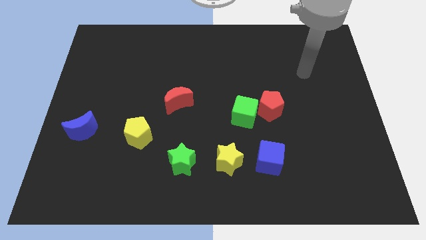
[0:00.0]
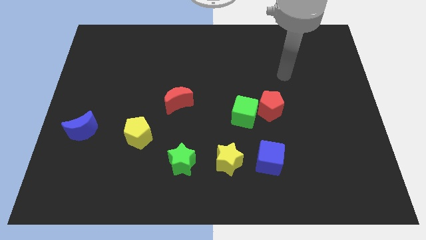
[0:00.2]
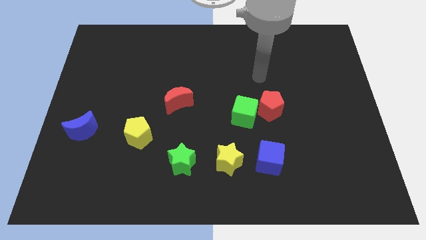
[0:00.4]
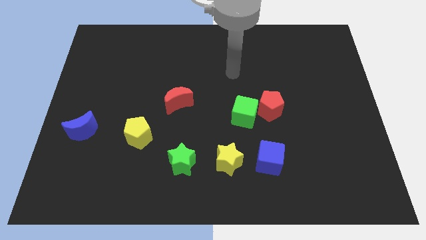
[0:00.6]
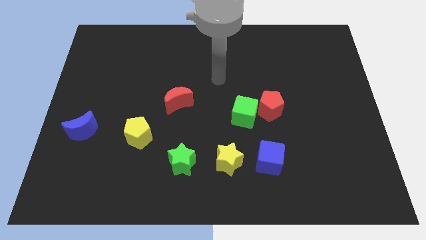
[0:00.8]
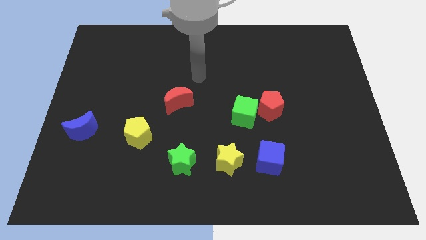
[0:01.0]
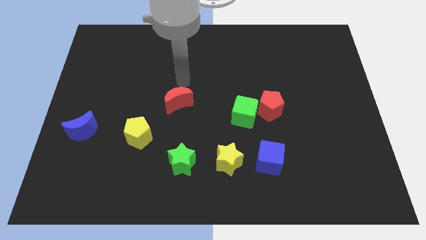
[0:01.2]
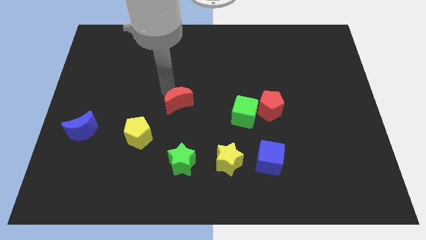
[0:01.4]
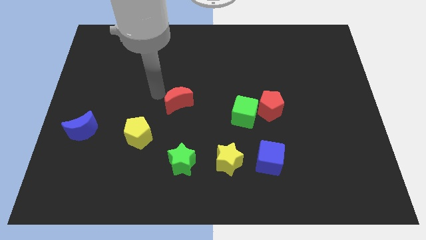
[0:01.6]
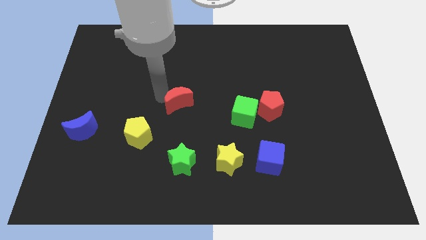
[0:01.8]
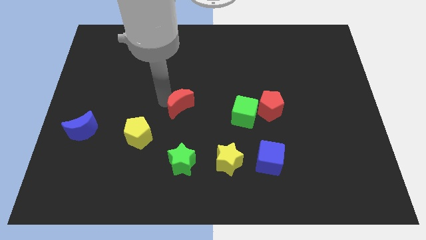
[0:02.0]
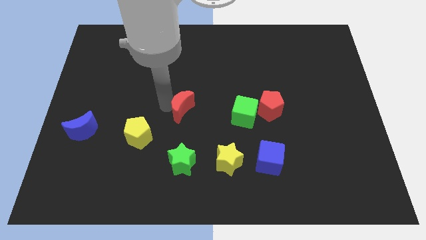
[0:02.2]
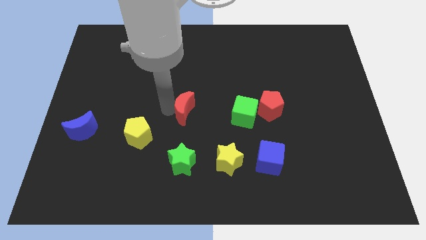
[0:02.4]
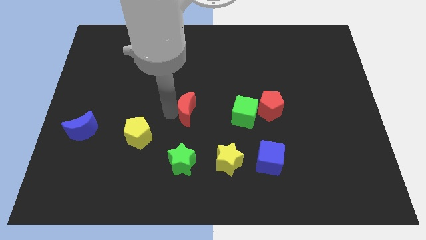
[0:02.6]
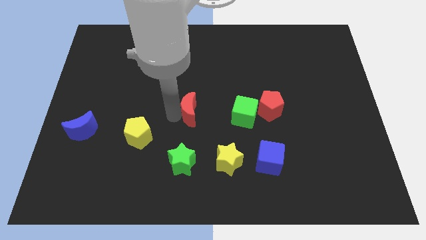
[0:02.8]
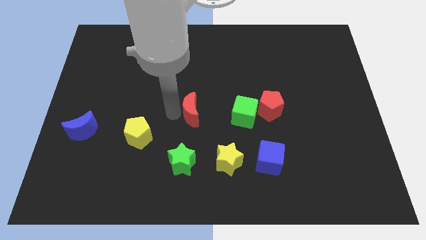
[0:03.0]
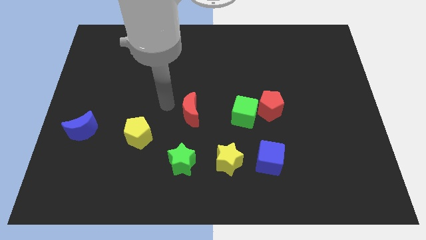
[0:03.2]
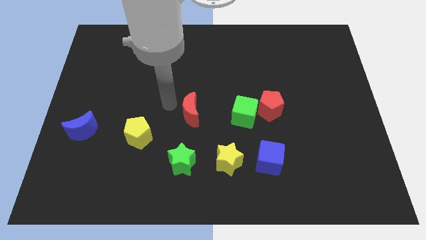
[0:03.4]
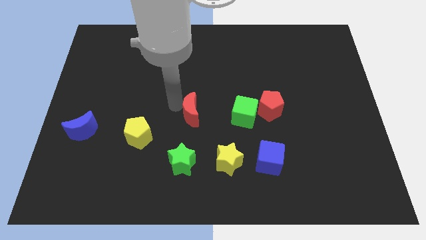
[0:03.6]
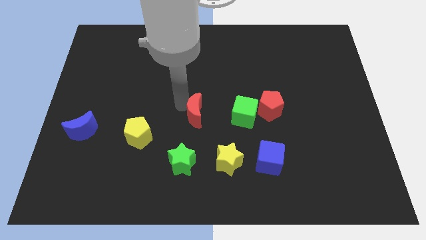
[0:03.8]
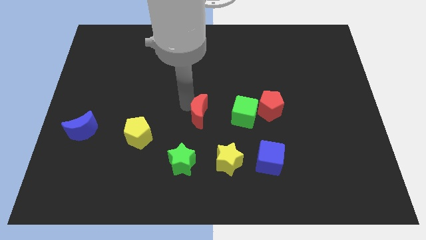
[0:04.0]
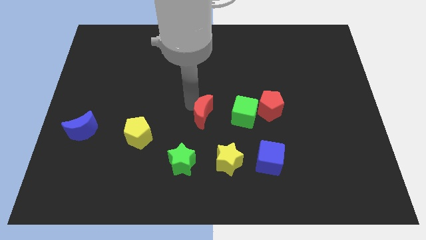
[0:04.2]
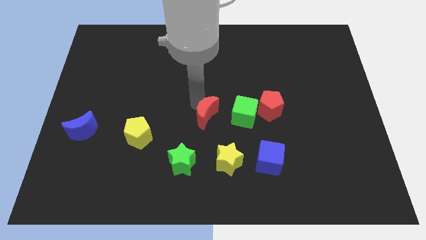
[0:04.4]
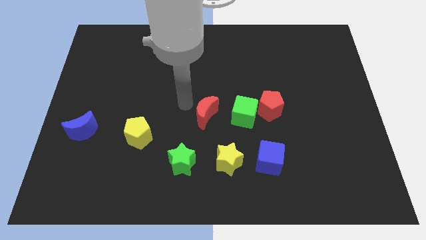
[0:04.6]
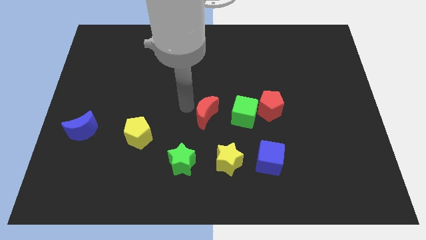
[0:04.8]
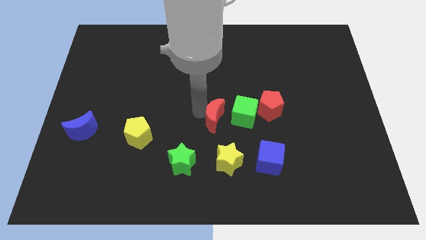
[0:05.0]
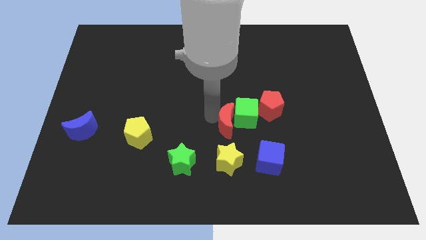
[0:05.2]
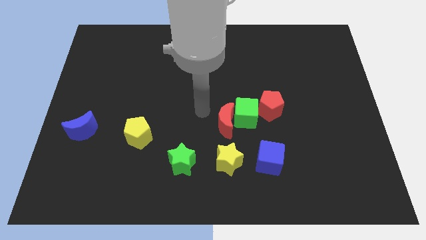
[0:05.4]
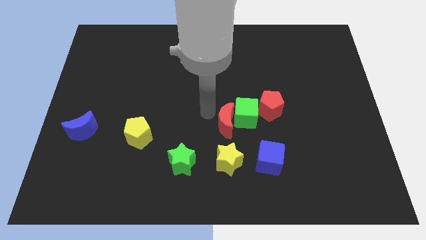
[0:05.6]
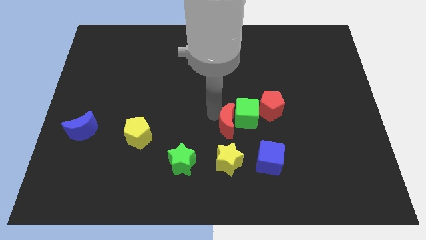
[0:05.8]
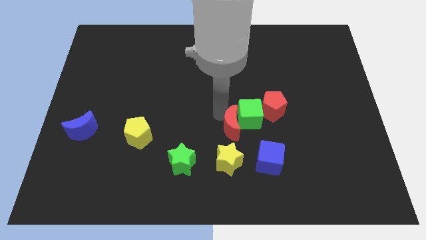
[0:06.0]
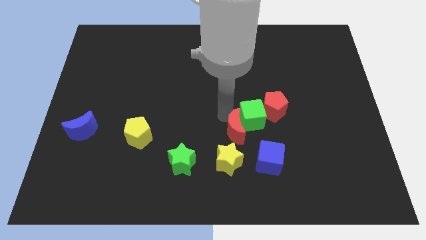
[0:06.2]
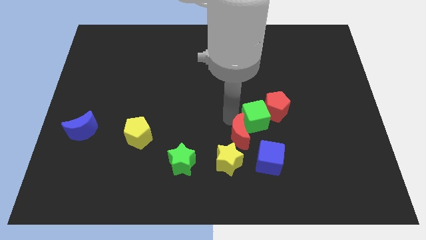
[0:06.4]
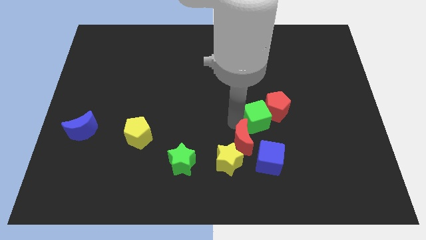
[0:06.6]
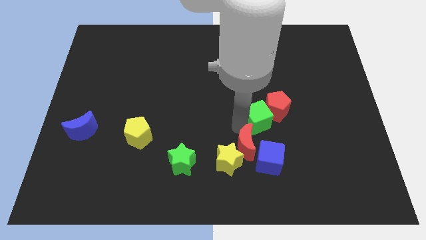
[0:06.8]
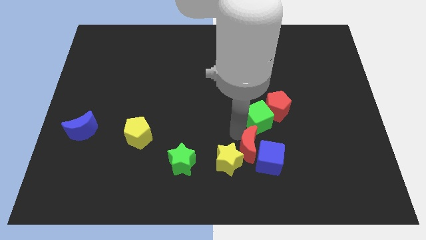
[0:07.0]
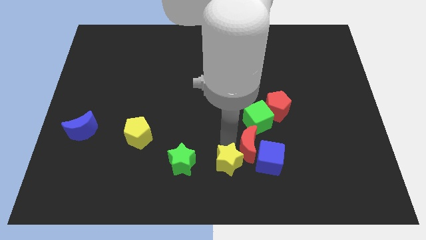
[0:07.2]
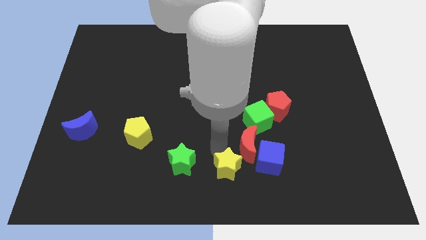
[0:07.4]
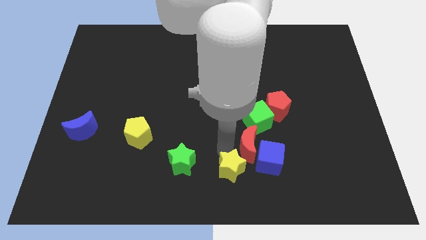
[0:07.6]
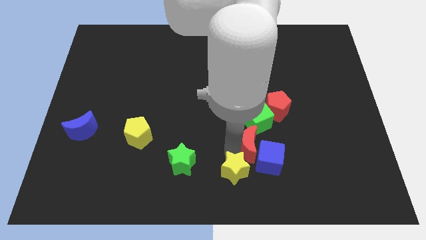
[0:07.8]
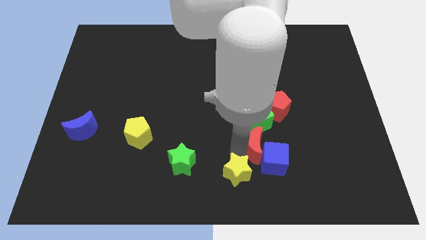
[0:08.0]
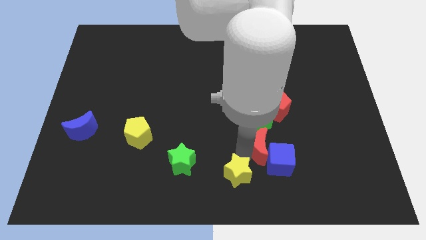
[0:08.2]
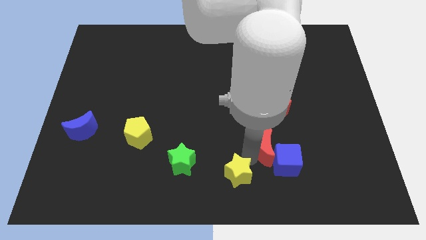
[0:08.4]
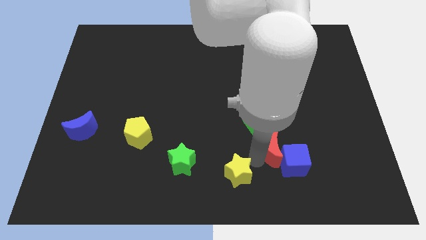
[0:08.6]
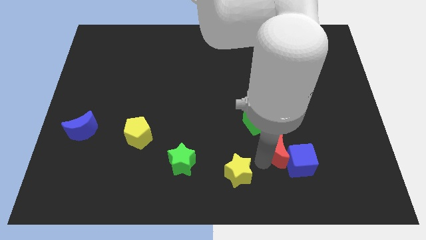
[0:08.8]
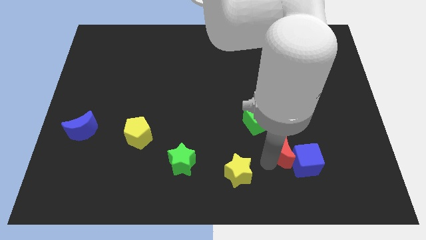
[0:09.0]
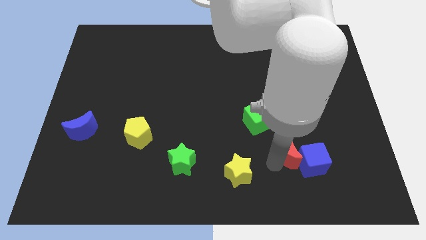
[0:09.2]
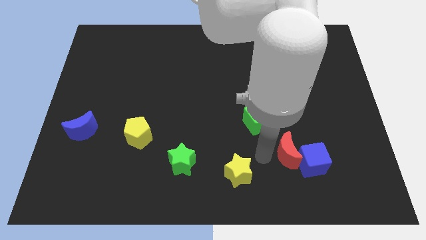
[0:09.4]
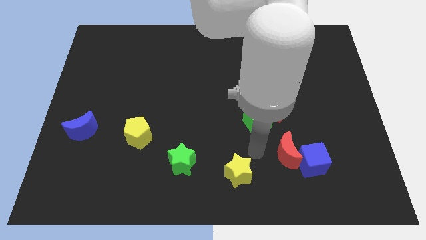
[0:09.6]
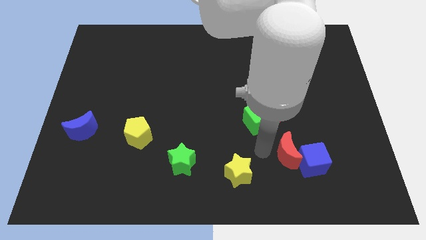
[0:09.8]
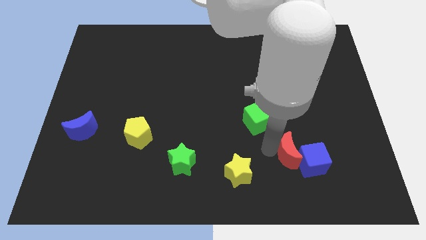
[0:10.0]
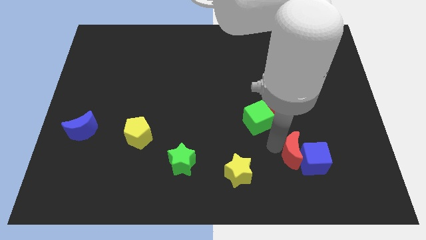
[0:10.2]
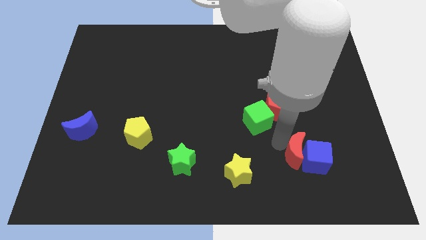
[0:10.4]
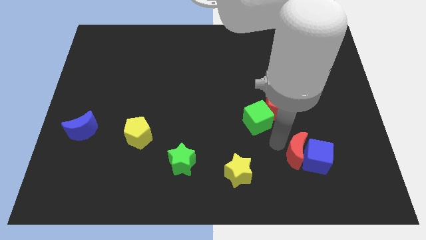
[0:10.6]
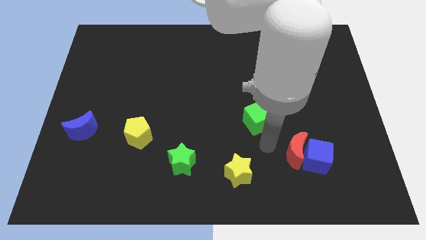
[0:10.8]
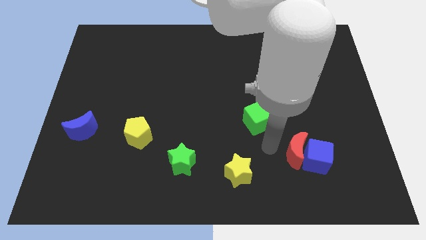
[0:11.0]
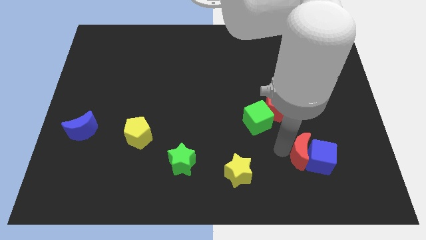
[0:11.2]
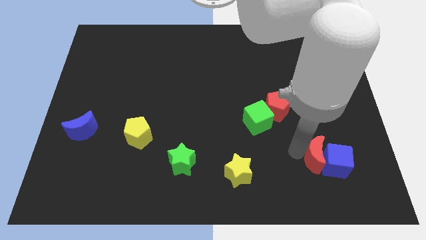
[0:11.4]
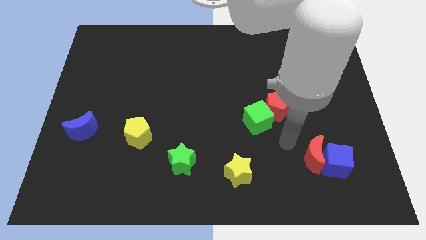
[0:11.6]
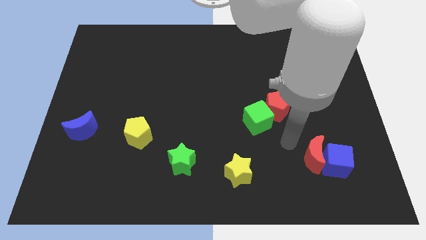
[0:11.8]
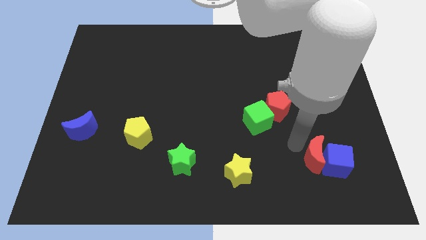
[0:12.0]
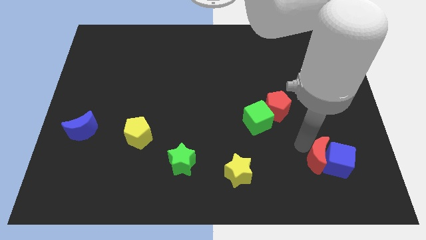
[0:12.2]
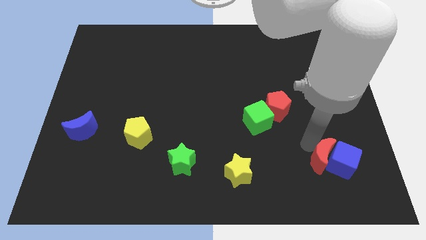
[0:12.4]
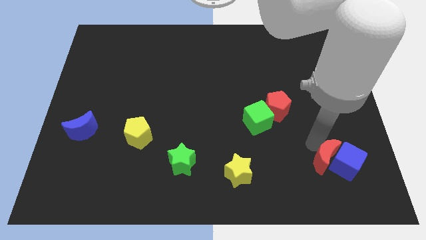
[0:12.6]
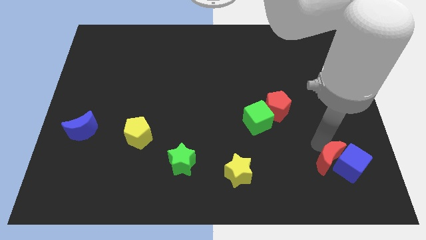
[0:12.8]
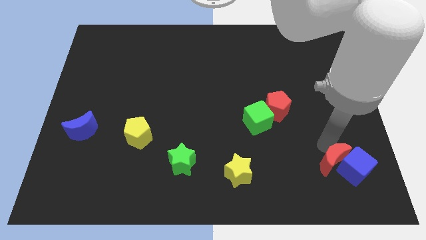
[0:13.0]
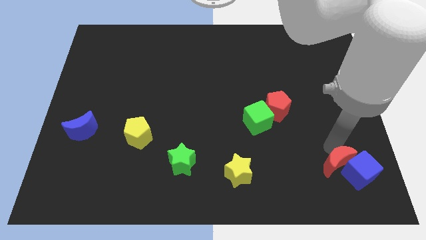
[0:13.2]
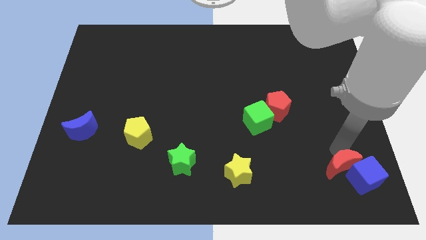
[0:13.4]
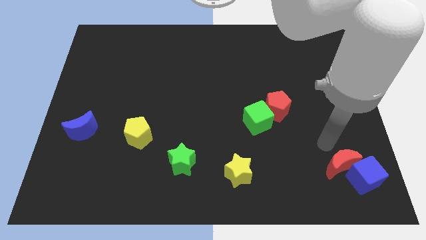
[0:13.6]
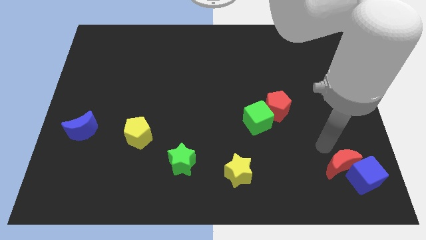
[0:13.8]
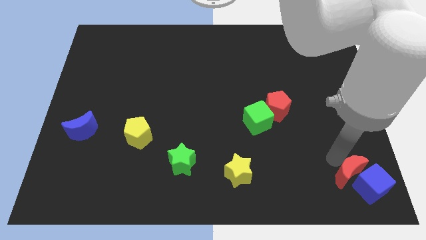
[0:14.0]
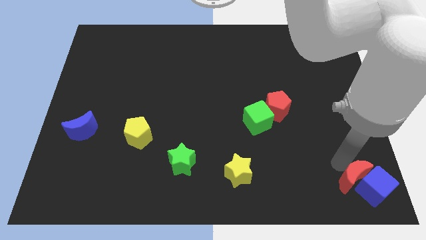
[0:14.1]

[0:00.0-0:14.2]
slide the red moon to the bottom right of the board
